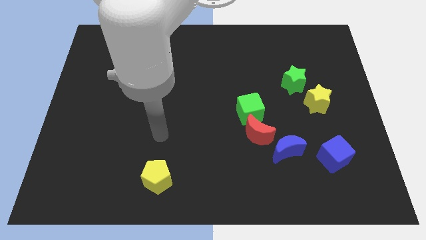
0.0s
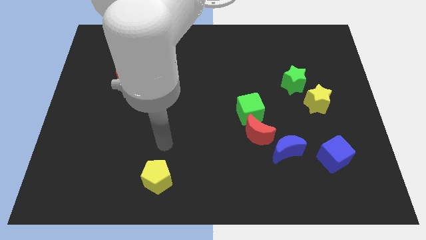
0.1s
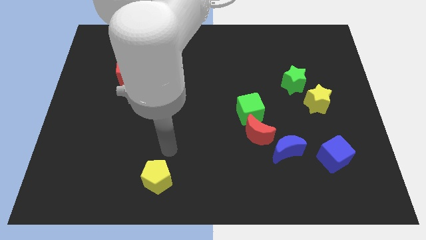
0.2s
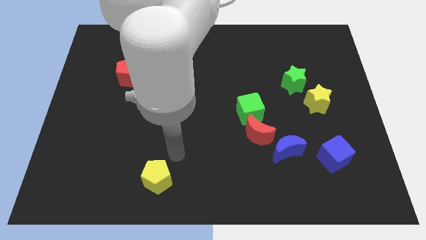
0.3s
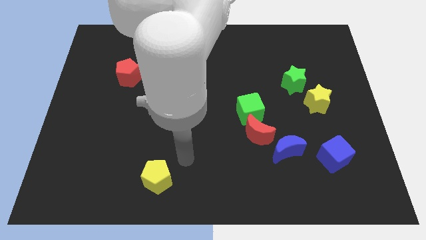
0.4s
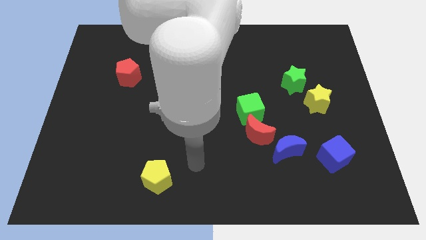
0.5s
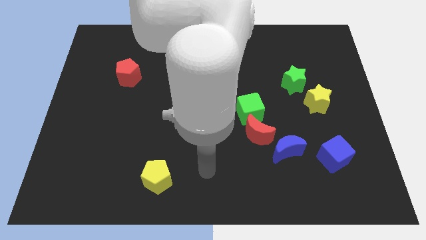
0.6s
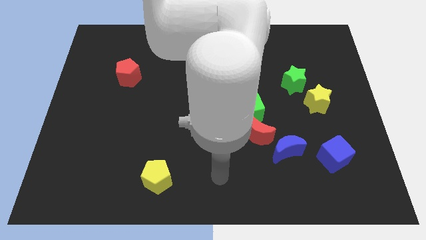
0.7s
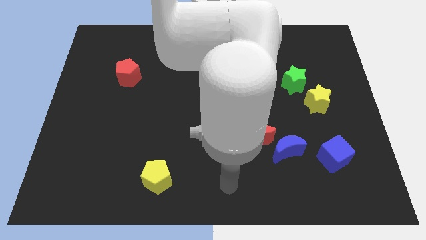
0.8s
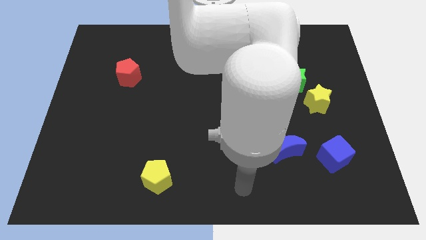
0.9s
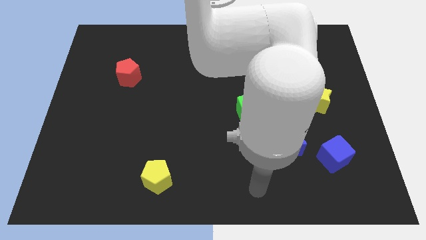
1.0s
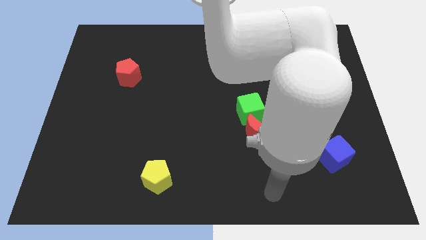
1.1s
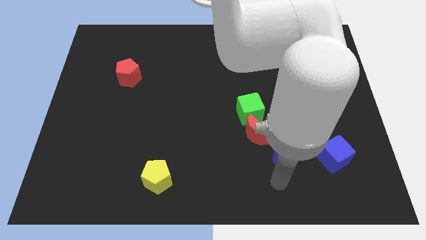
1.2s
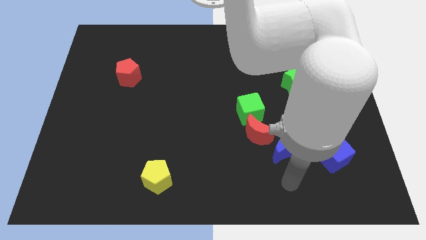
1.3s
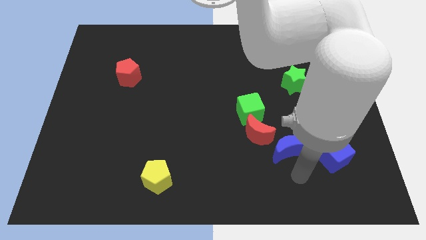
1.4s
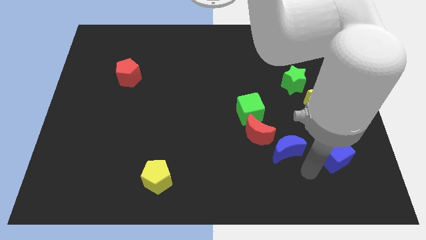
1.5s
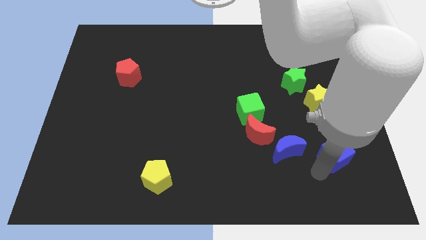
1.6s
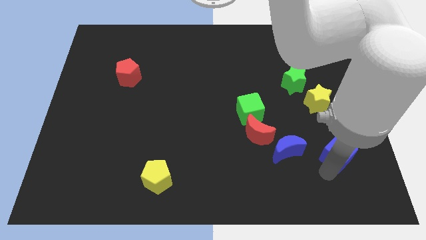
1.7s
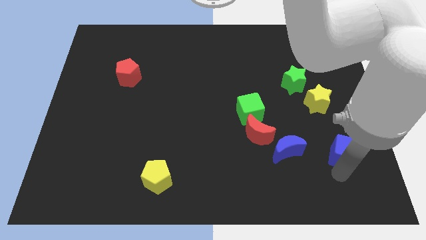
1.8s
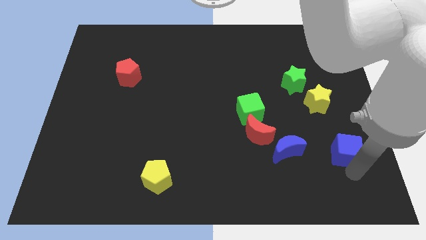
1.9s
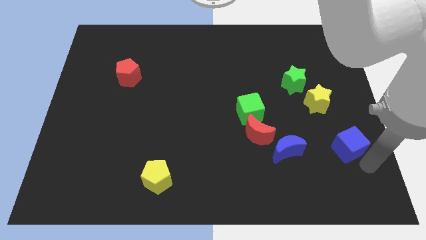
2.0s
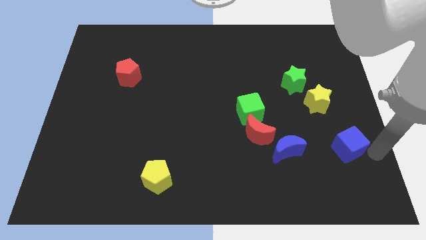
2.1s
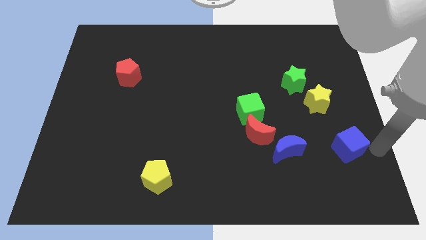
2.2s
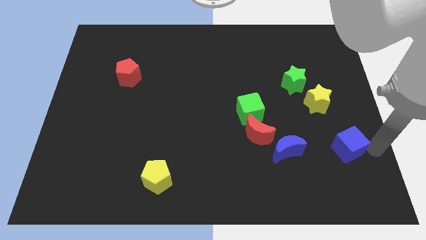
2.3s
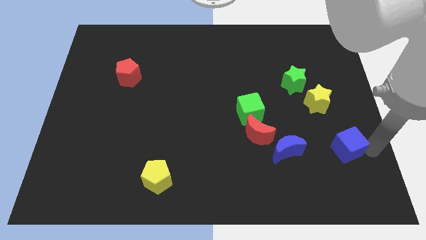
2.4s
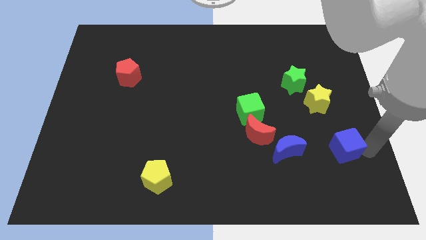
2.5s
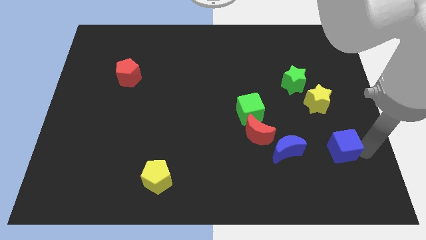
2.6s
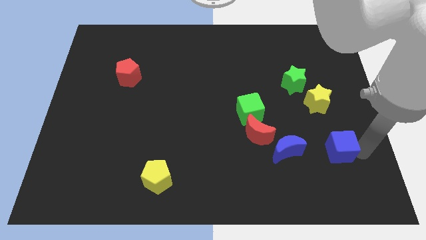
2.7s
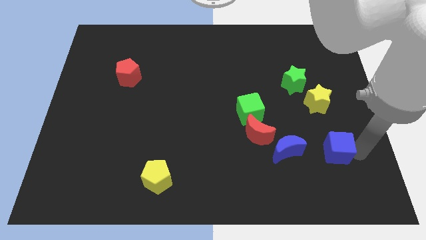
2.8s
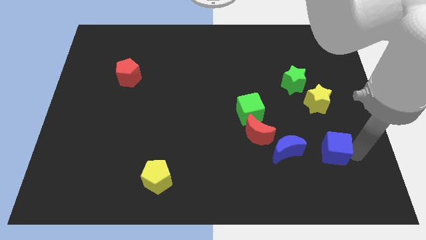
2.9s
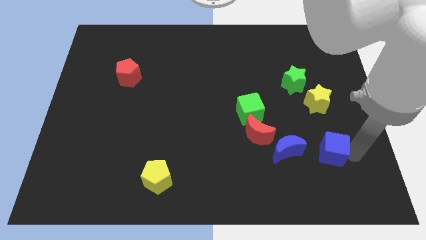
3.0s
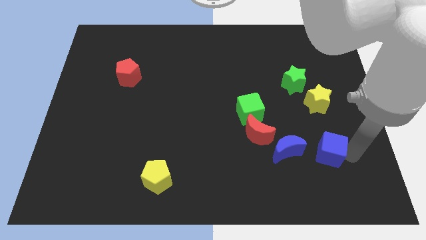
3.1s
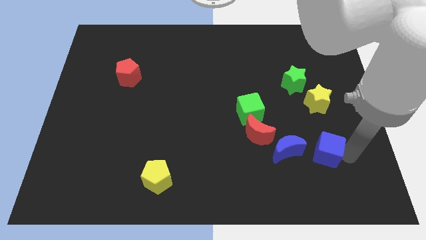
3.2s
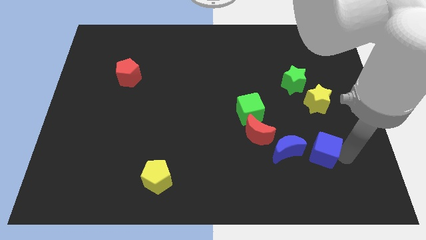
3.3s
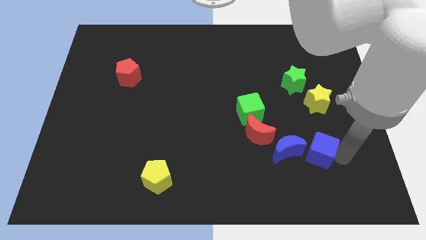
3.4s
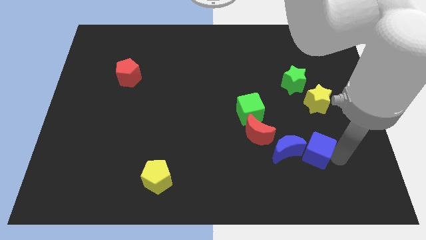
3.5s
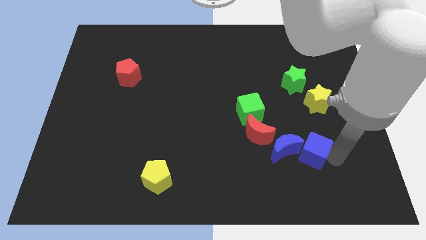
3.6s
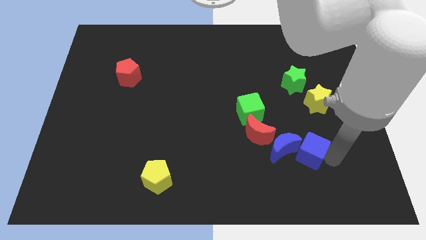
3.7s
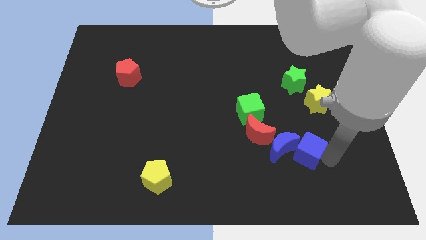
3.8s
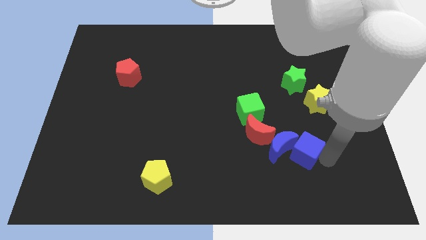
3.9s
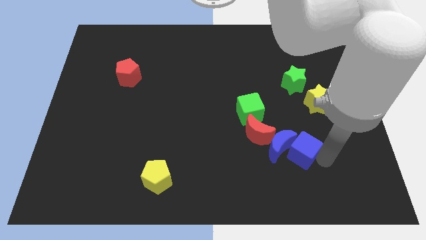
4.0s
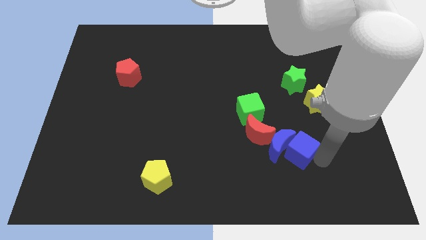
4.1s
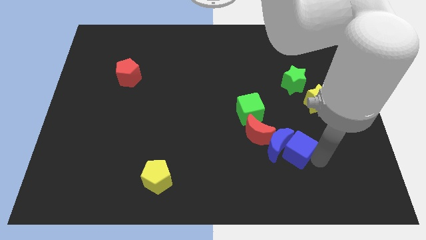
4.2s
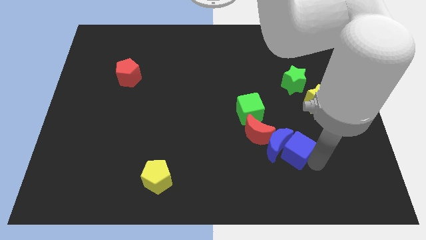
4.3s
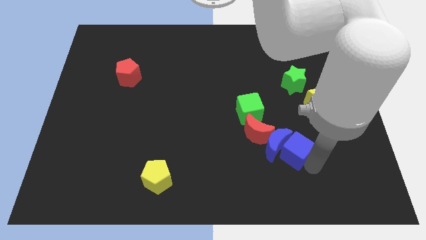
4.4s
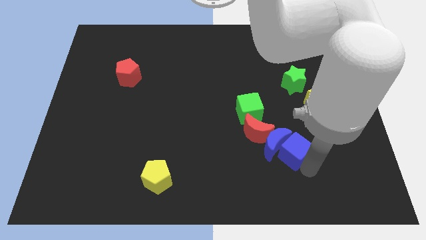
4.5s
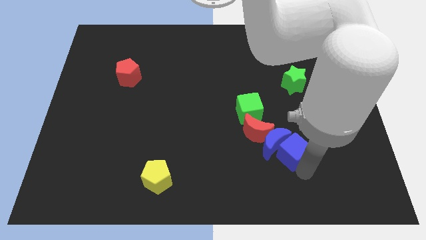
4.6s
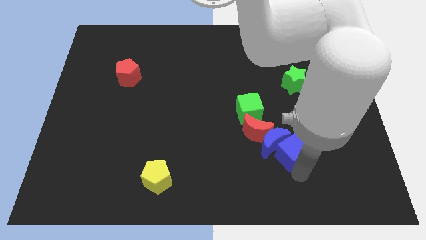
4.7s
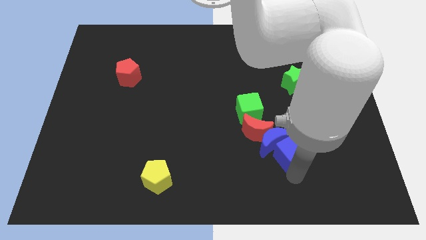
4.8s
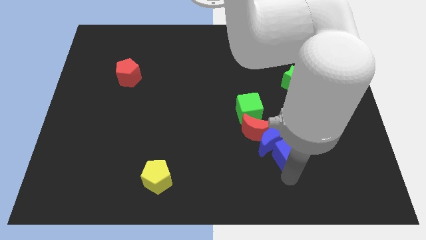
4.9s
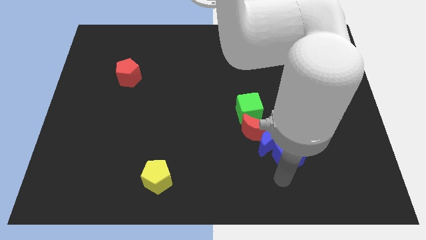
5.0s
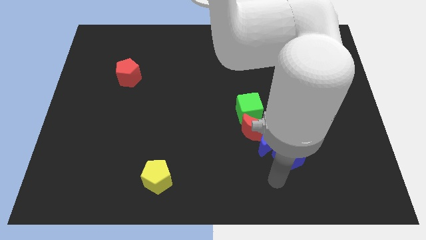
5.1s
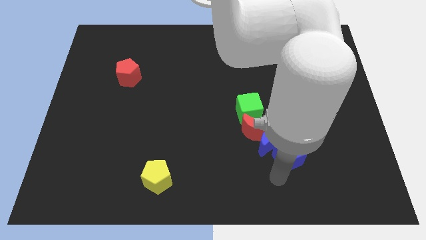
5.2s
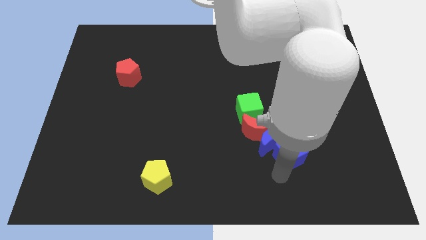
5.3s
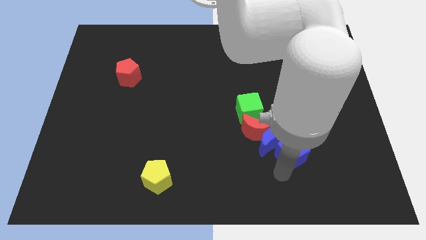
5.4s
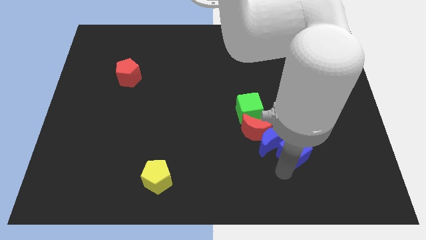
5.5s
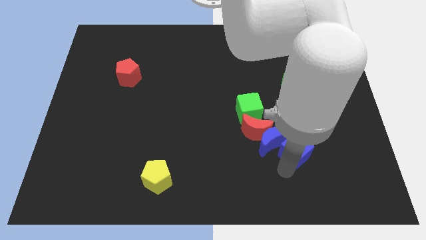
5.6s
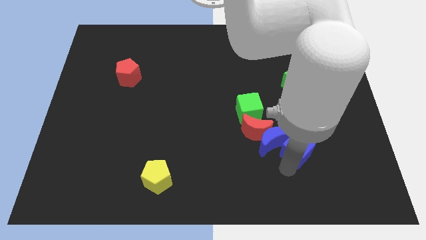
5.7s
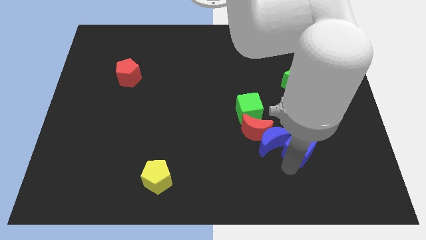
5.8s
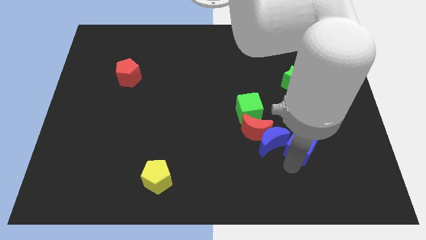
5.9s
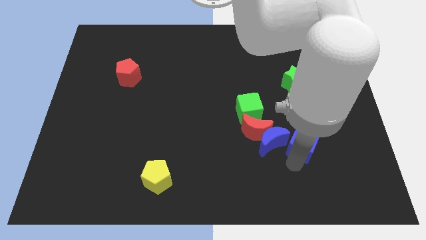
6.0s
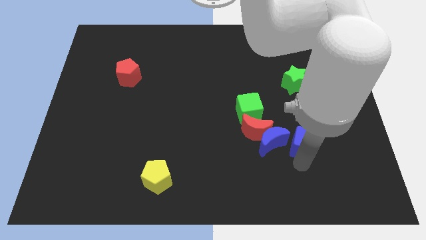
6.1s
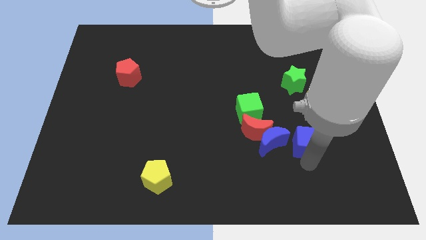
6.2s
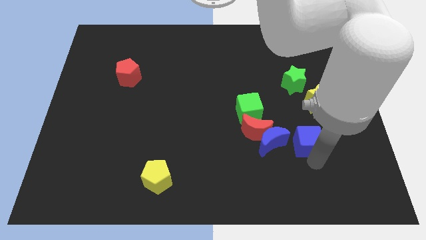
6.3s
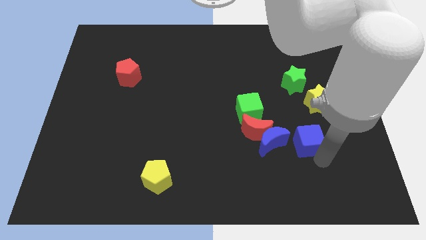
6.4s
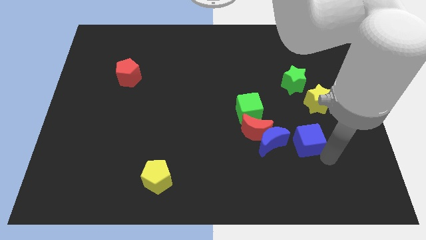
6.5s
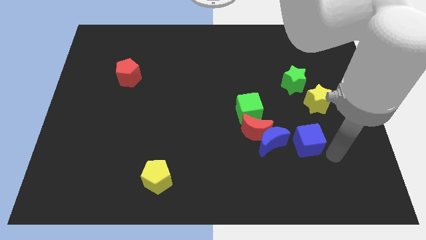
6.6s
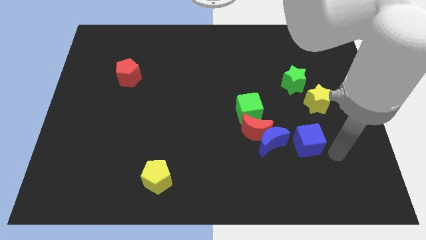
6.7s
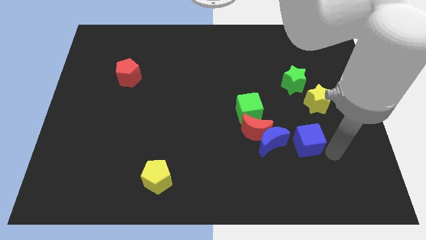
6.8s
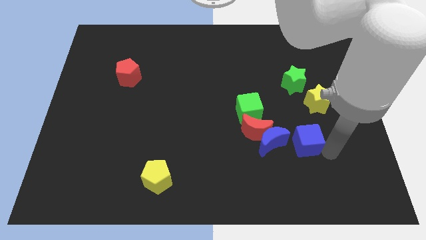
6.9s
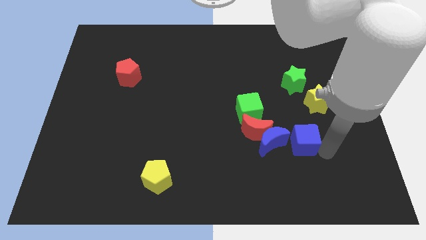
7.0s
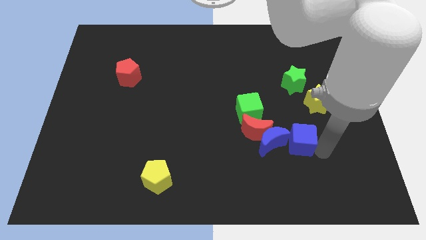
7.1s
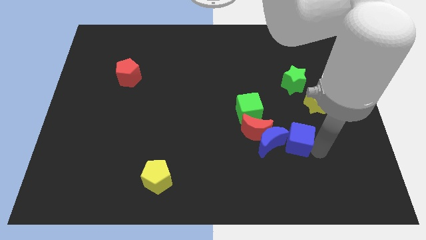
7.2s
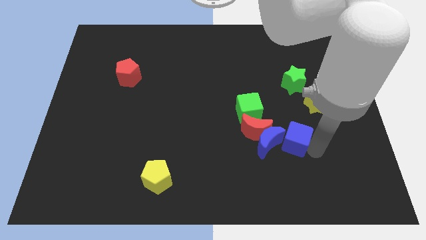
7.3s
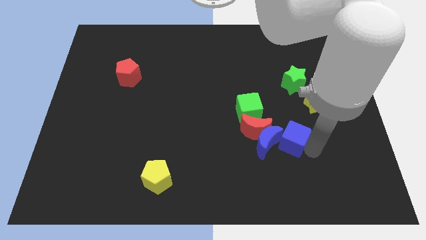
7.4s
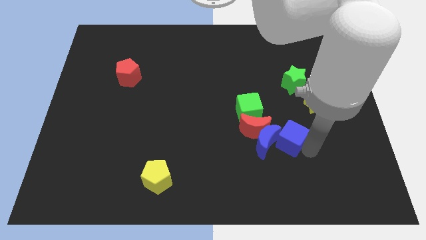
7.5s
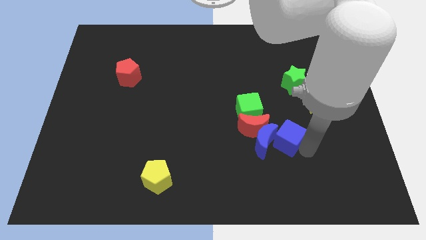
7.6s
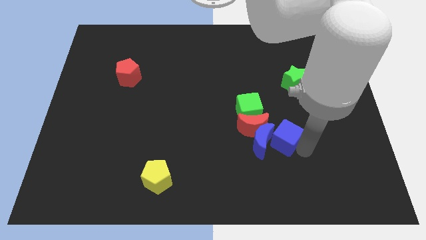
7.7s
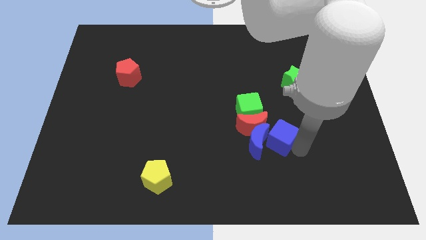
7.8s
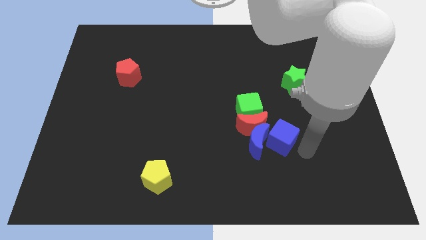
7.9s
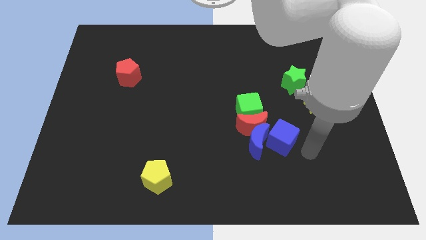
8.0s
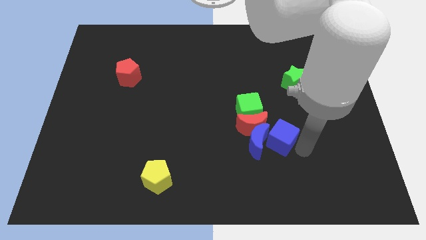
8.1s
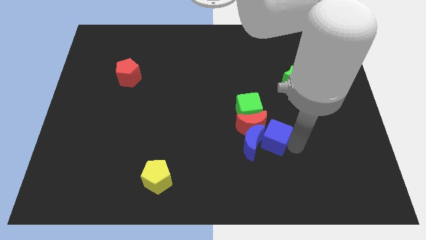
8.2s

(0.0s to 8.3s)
slide the blue cube close to the red moon
